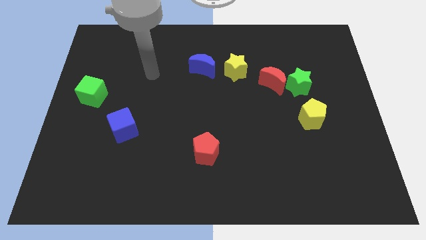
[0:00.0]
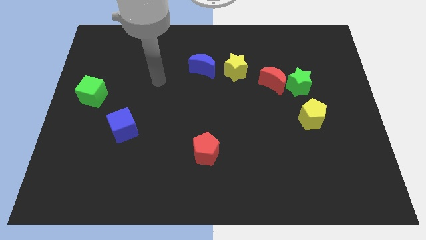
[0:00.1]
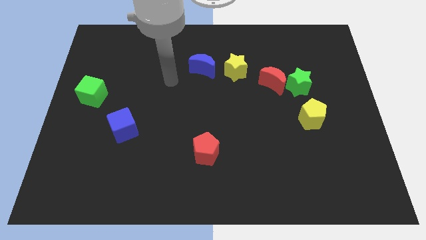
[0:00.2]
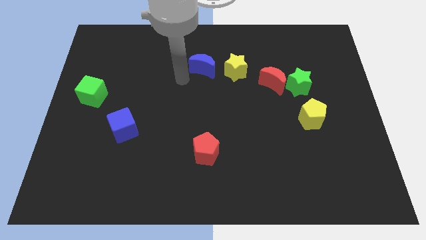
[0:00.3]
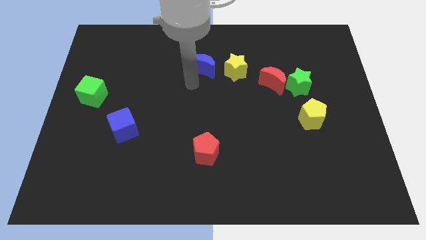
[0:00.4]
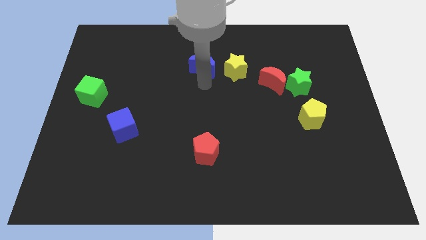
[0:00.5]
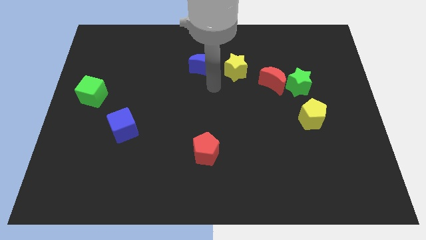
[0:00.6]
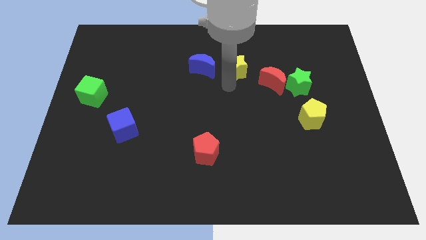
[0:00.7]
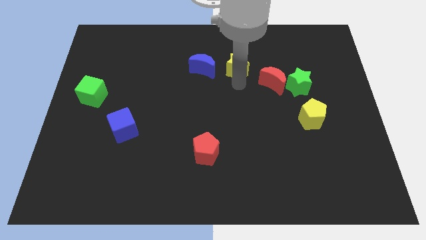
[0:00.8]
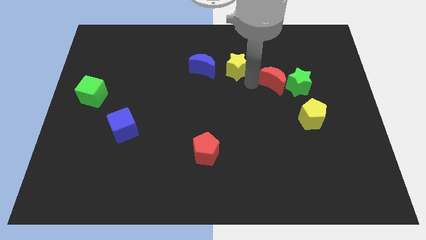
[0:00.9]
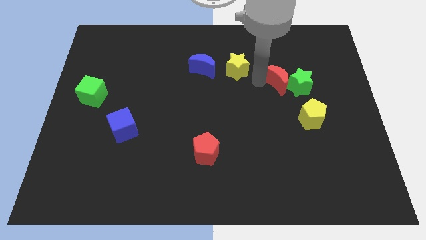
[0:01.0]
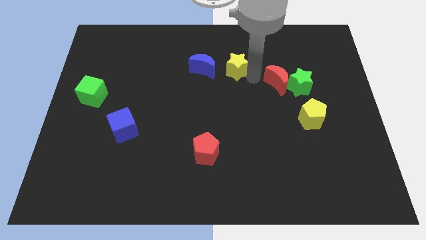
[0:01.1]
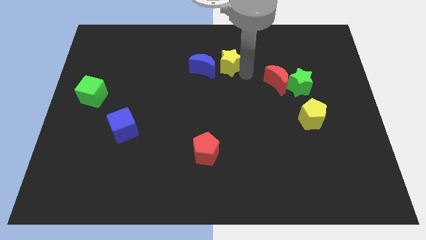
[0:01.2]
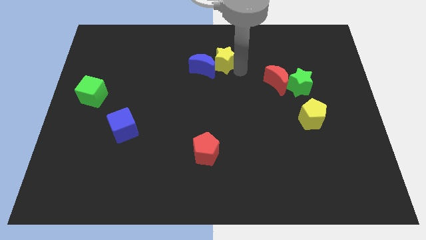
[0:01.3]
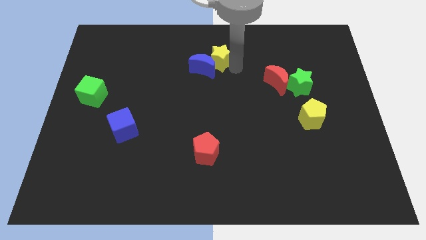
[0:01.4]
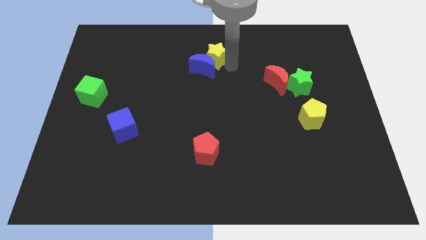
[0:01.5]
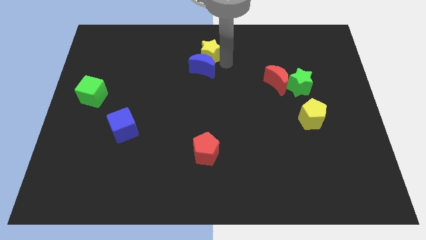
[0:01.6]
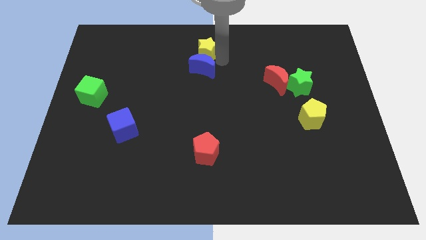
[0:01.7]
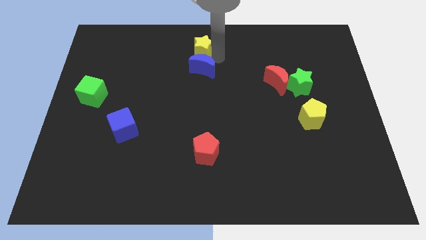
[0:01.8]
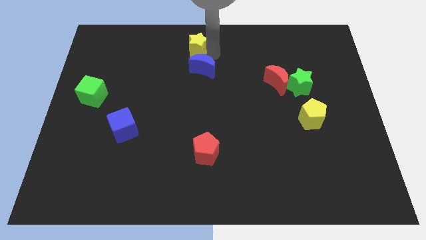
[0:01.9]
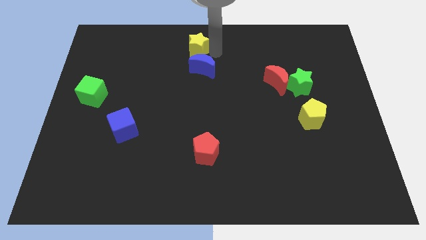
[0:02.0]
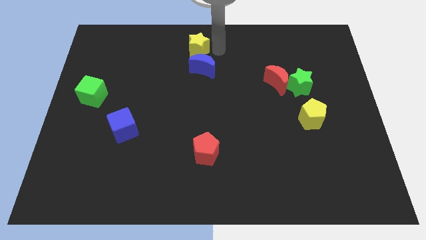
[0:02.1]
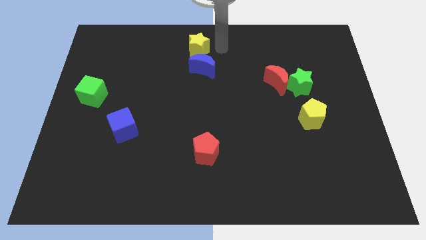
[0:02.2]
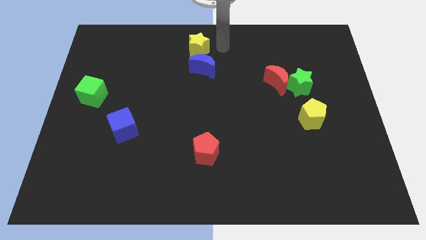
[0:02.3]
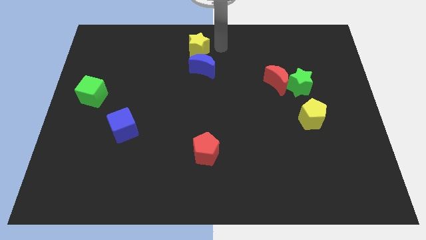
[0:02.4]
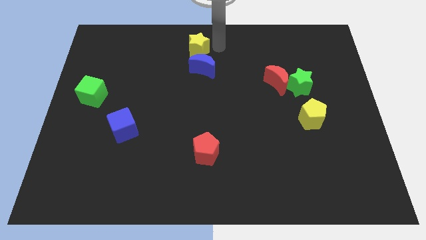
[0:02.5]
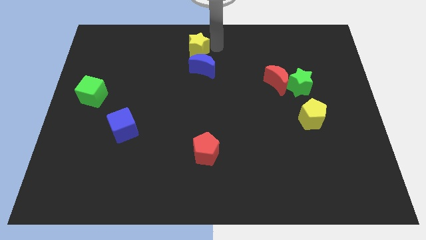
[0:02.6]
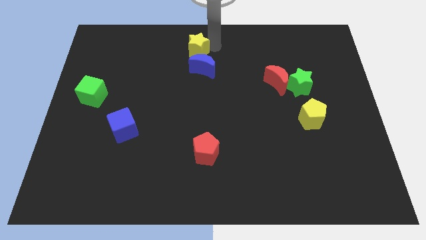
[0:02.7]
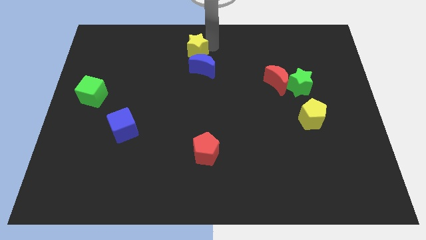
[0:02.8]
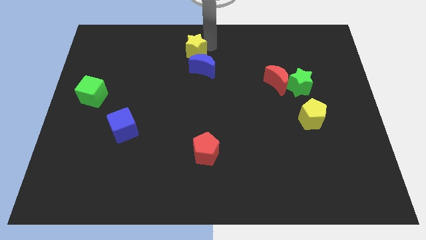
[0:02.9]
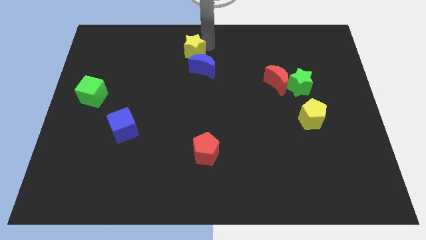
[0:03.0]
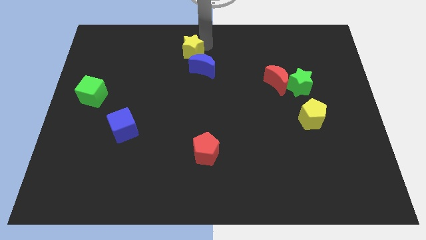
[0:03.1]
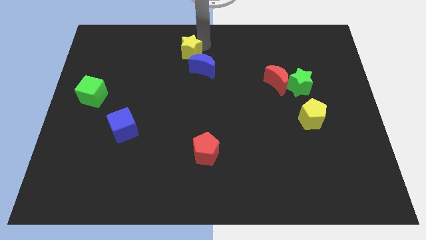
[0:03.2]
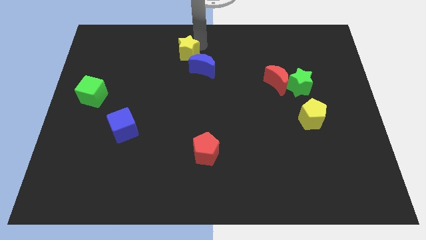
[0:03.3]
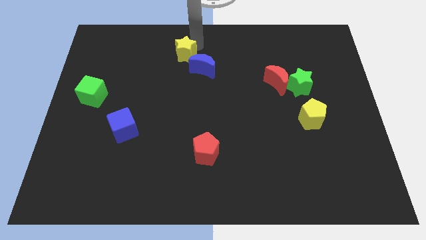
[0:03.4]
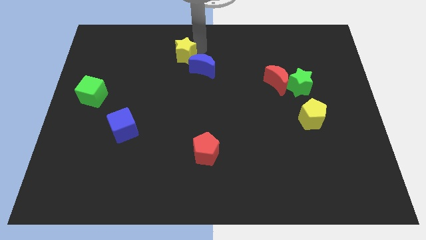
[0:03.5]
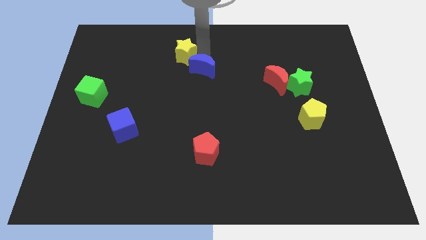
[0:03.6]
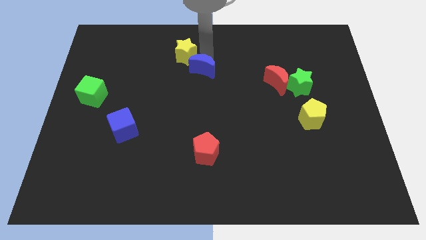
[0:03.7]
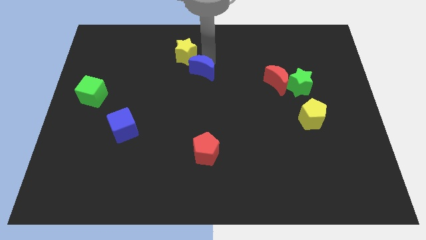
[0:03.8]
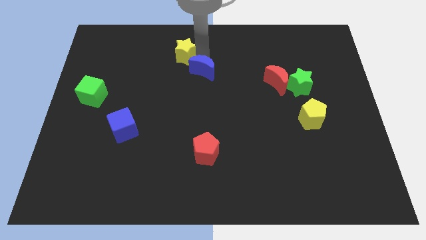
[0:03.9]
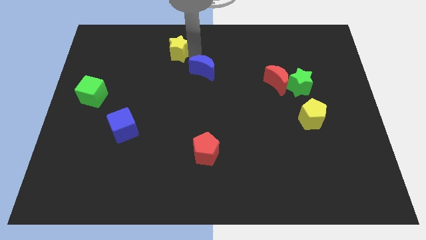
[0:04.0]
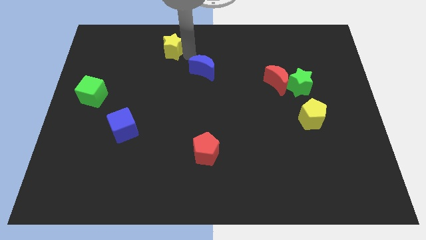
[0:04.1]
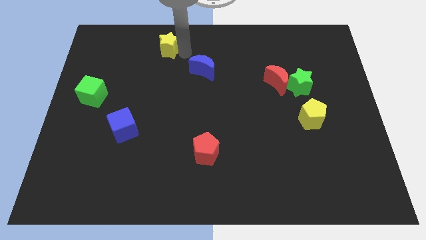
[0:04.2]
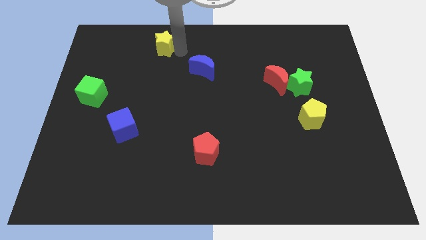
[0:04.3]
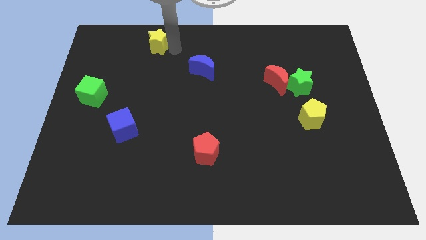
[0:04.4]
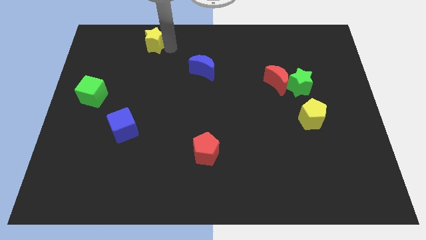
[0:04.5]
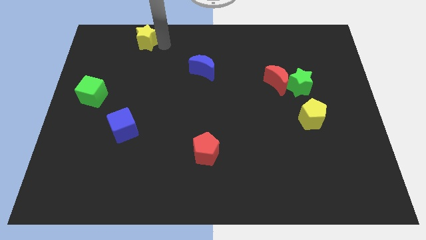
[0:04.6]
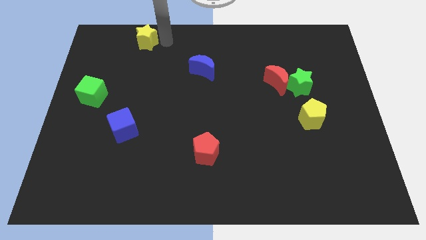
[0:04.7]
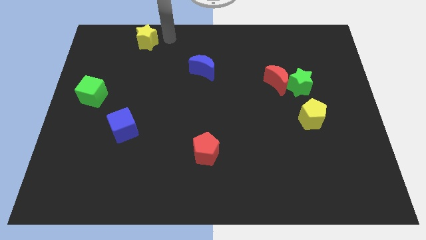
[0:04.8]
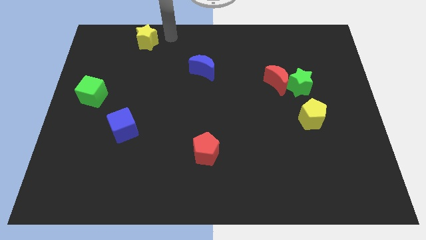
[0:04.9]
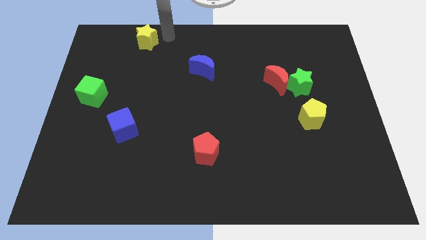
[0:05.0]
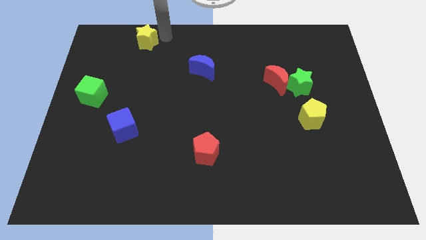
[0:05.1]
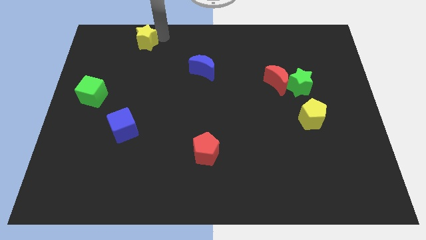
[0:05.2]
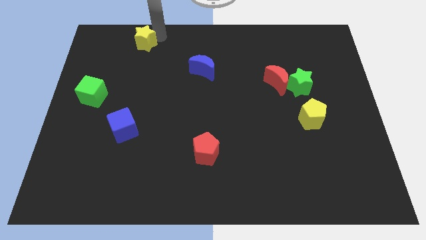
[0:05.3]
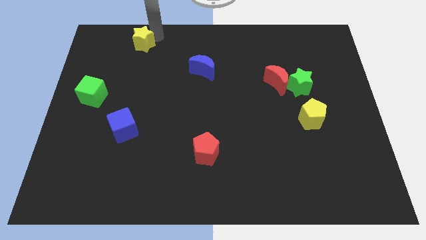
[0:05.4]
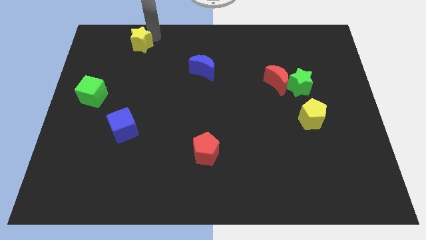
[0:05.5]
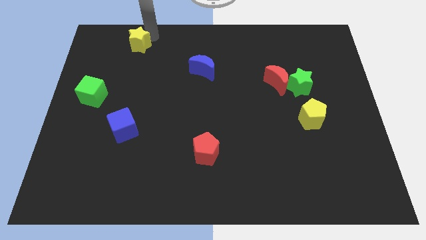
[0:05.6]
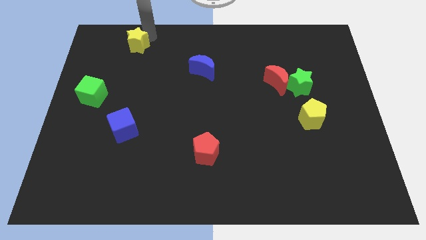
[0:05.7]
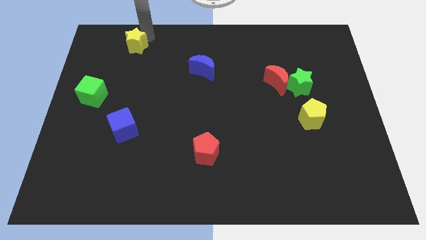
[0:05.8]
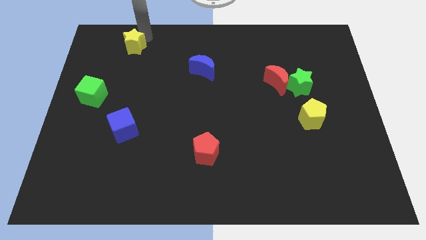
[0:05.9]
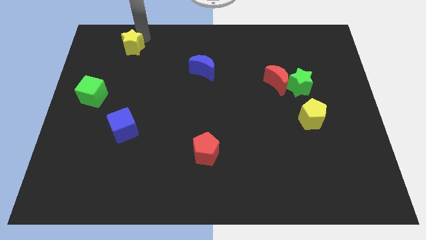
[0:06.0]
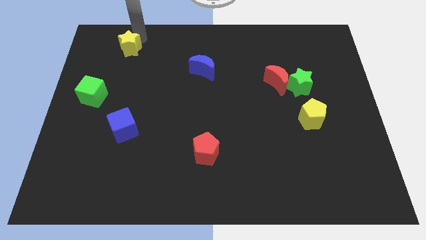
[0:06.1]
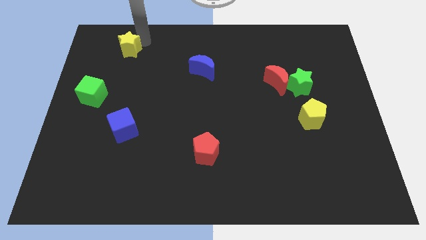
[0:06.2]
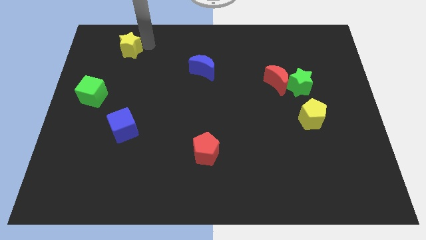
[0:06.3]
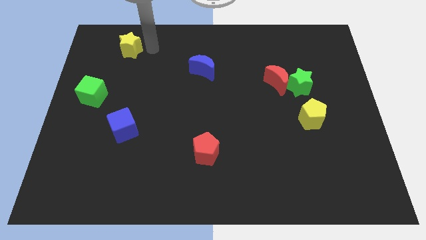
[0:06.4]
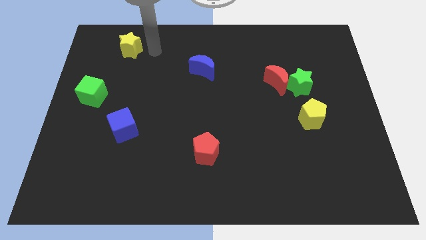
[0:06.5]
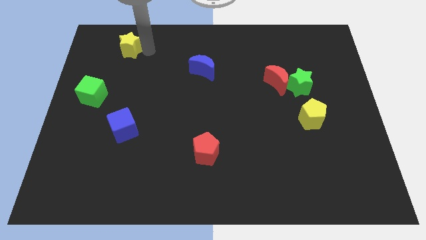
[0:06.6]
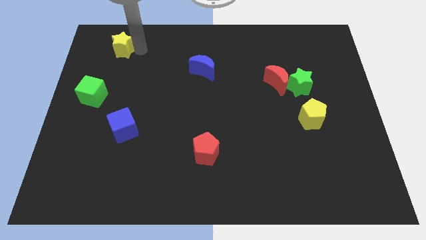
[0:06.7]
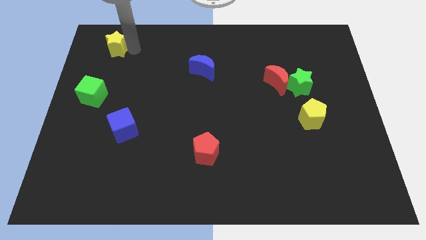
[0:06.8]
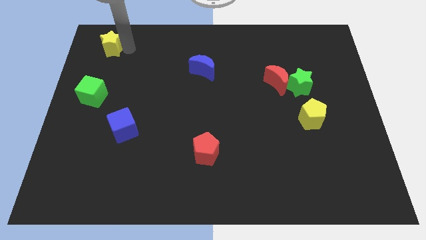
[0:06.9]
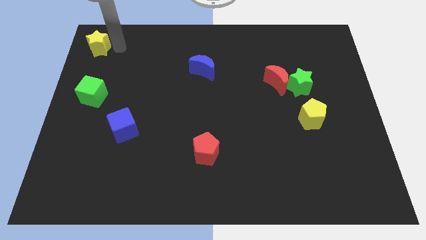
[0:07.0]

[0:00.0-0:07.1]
push the yellow star to the top left

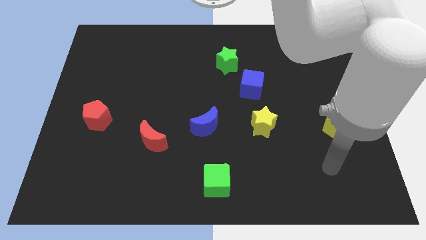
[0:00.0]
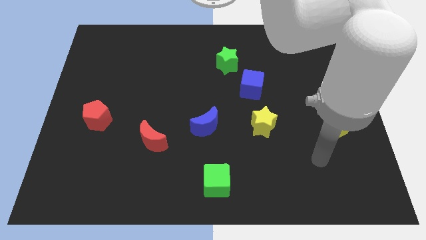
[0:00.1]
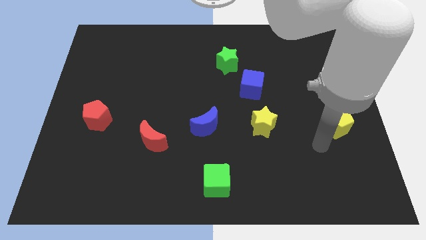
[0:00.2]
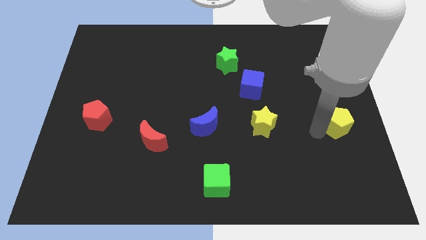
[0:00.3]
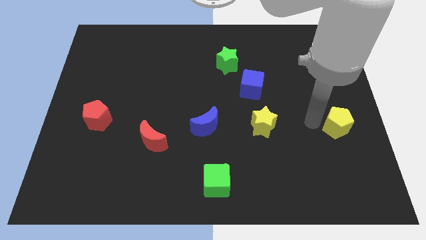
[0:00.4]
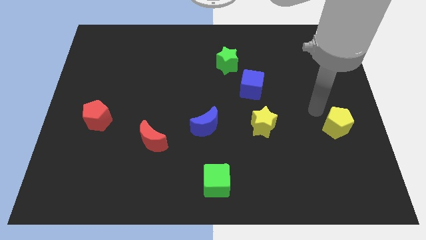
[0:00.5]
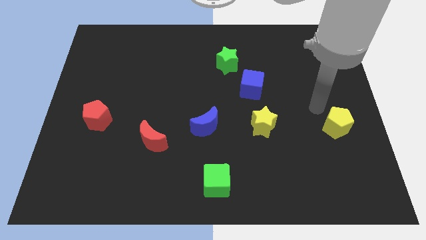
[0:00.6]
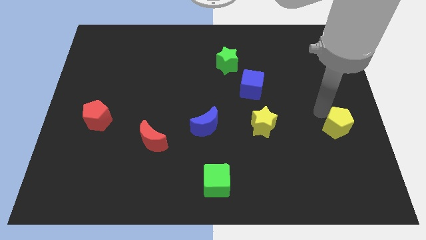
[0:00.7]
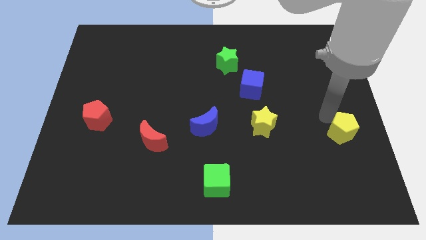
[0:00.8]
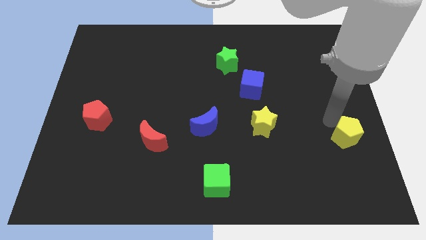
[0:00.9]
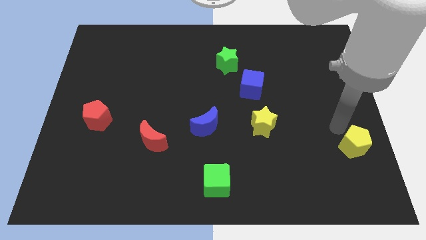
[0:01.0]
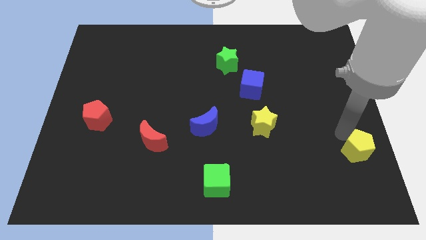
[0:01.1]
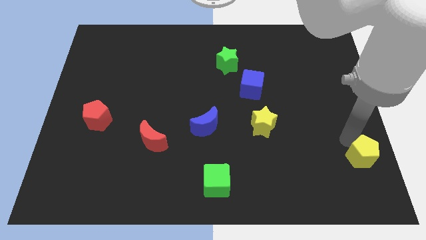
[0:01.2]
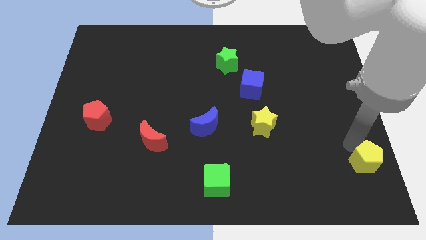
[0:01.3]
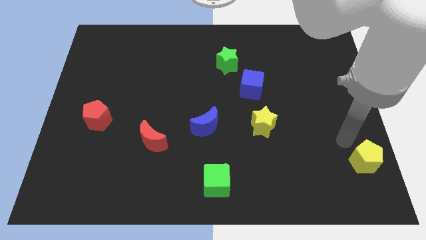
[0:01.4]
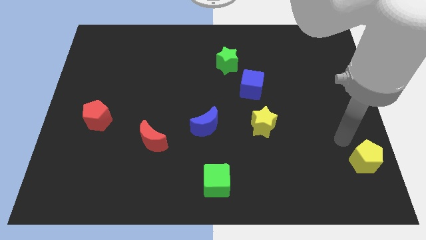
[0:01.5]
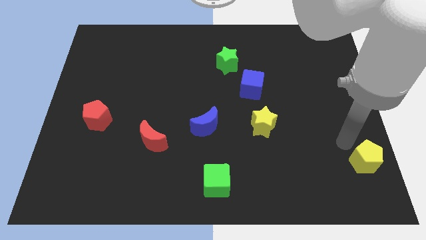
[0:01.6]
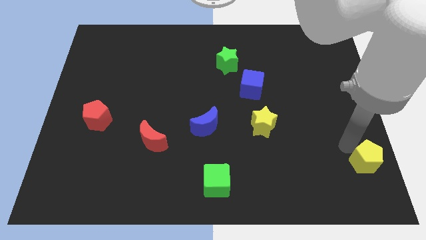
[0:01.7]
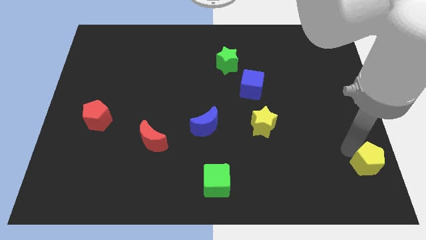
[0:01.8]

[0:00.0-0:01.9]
push the yellow pentagon to the lower right corner
